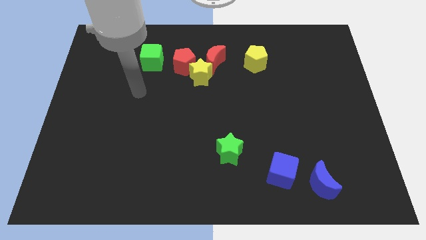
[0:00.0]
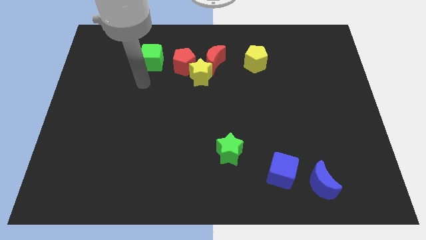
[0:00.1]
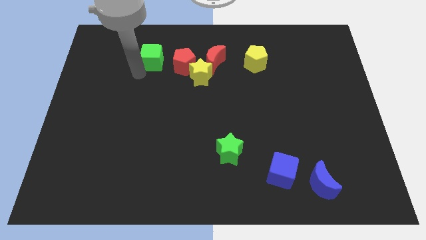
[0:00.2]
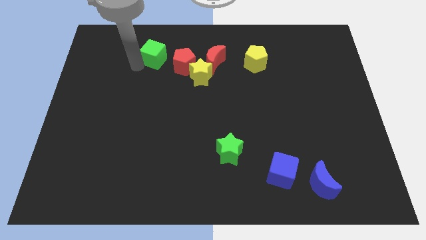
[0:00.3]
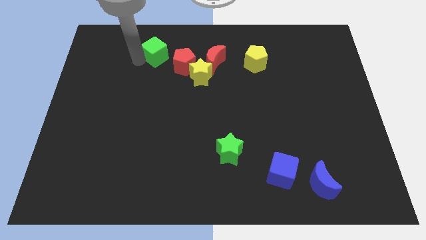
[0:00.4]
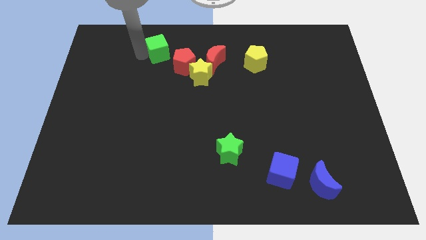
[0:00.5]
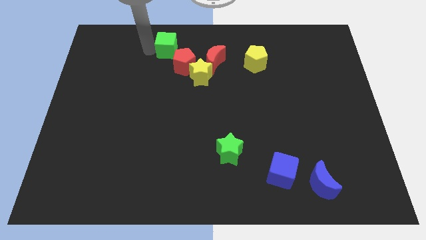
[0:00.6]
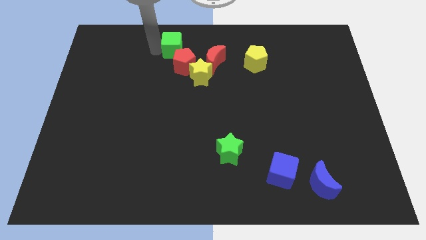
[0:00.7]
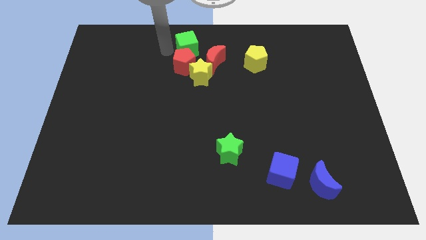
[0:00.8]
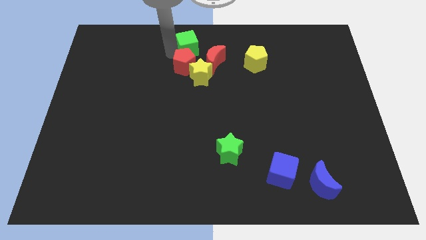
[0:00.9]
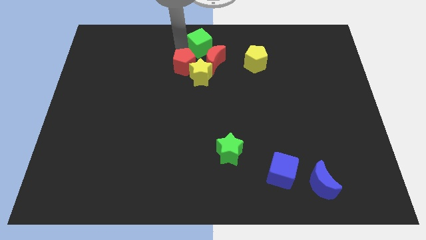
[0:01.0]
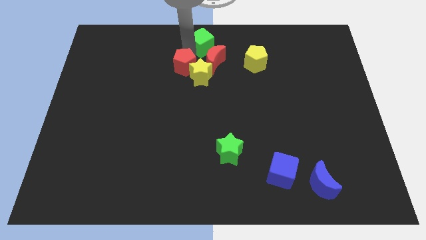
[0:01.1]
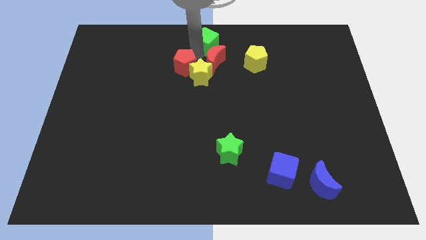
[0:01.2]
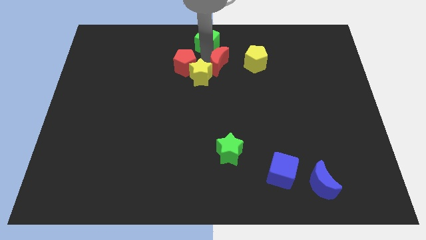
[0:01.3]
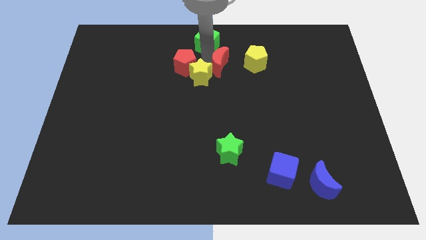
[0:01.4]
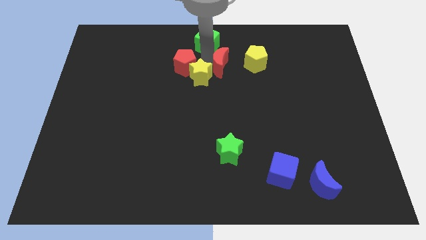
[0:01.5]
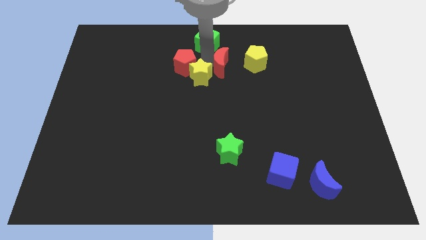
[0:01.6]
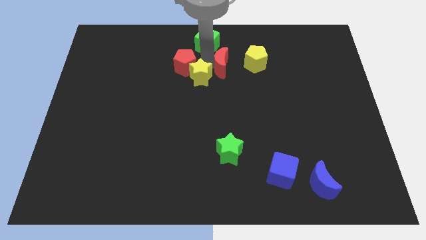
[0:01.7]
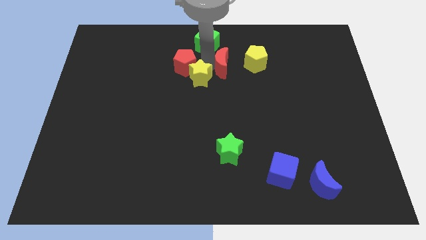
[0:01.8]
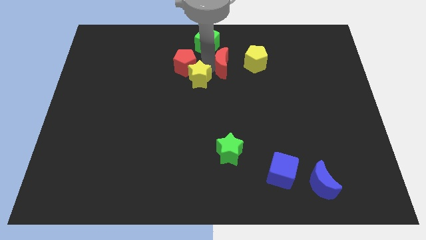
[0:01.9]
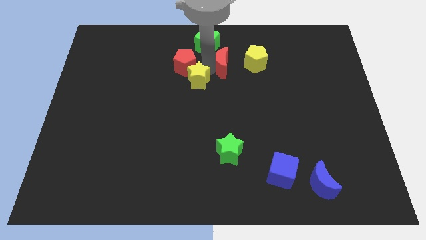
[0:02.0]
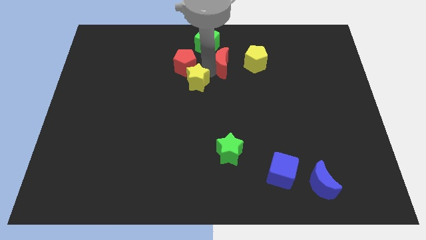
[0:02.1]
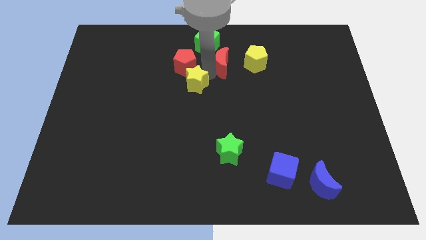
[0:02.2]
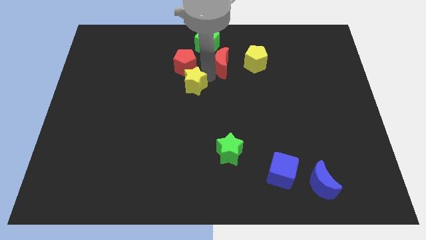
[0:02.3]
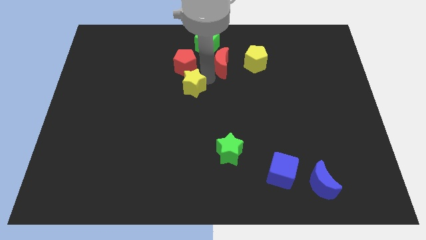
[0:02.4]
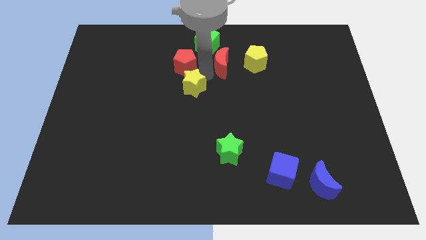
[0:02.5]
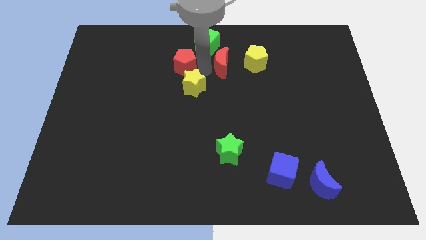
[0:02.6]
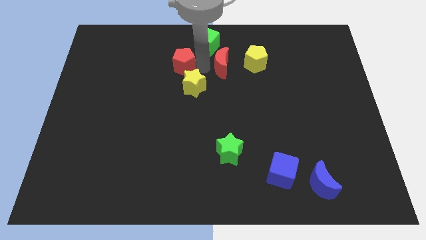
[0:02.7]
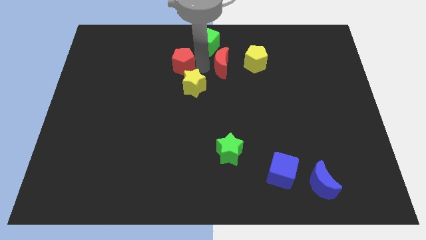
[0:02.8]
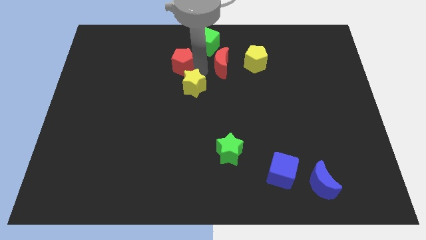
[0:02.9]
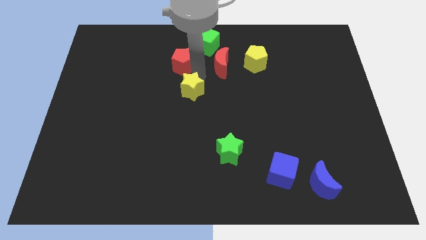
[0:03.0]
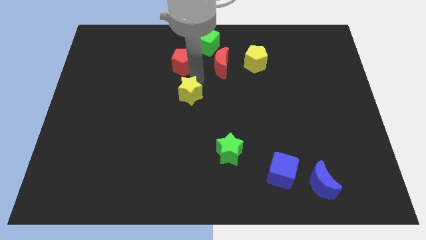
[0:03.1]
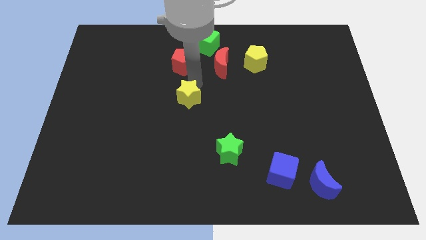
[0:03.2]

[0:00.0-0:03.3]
move the yellow star away from the red pentagon and red moon

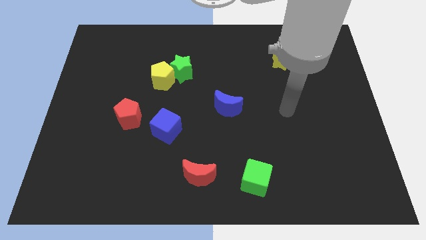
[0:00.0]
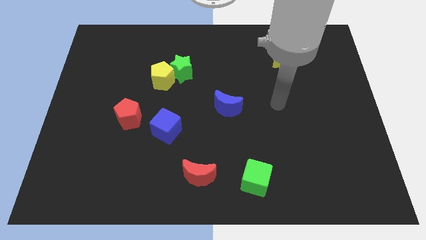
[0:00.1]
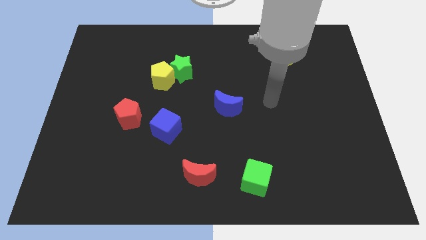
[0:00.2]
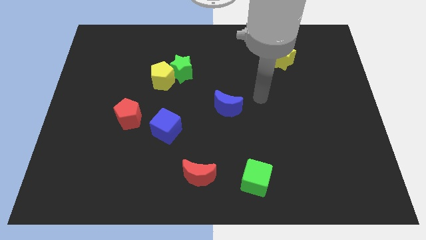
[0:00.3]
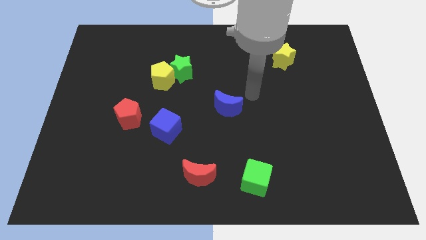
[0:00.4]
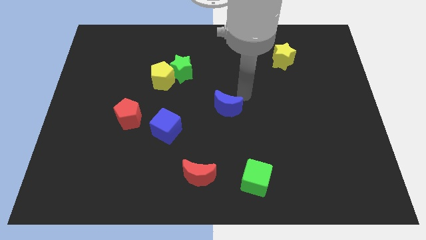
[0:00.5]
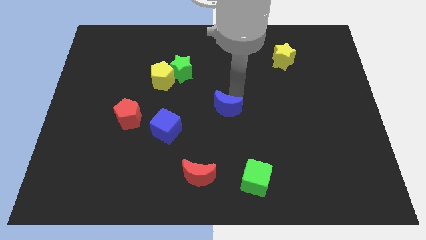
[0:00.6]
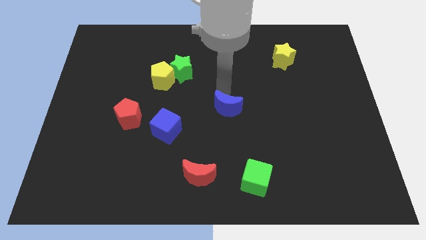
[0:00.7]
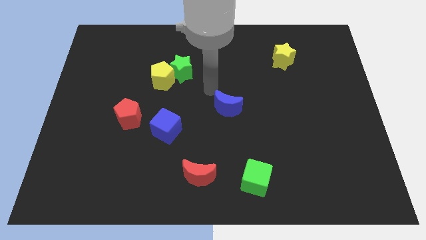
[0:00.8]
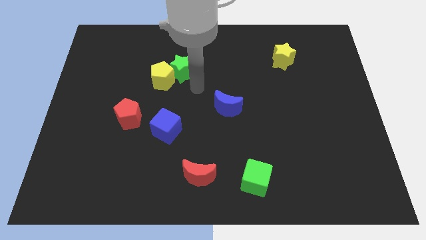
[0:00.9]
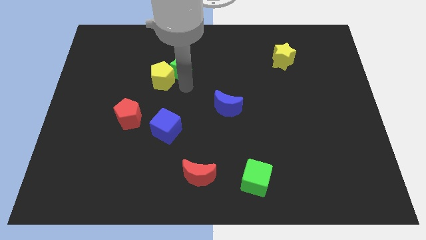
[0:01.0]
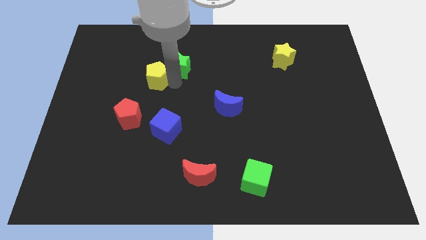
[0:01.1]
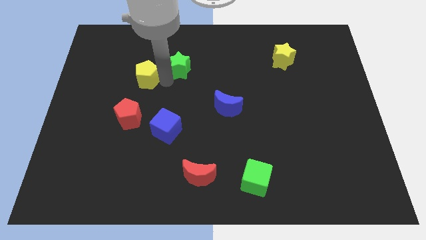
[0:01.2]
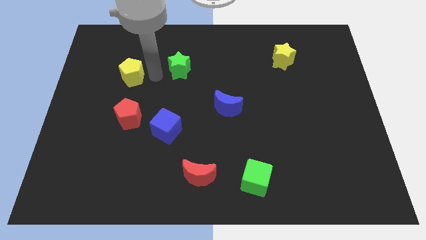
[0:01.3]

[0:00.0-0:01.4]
separate the green star from the yellow pentagon

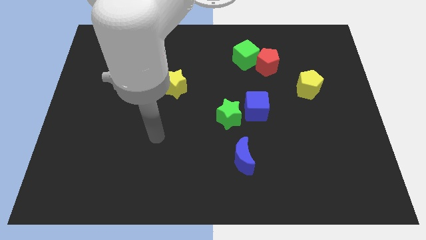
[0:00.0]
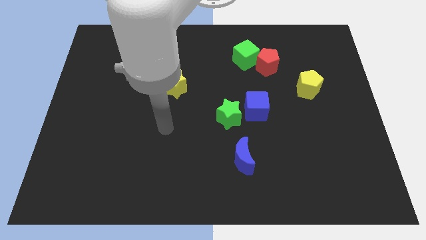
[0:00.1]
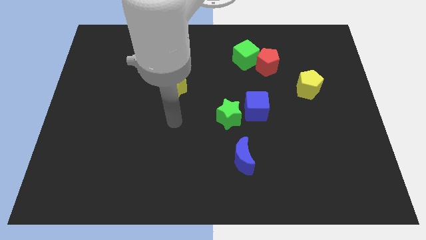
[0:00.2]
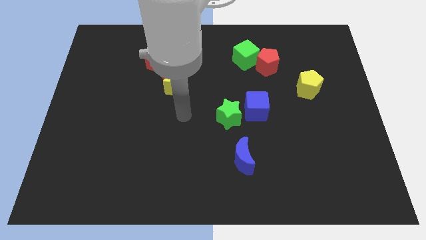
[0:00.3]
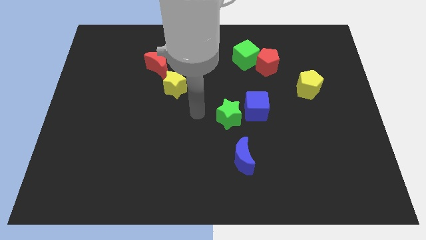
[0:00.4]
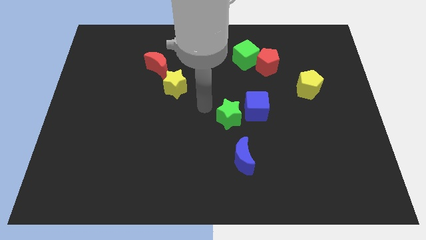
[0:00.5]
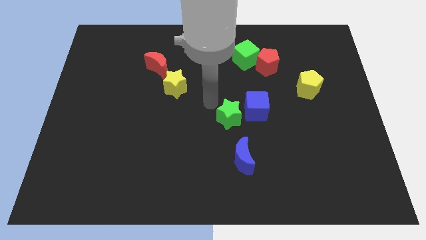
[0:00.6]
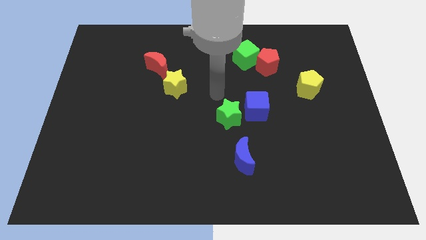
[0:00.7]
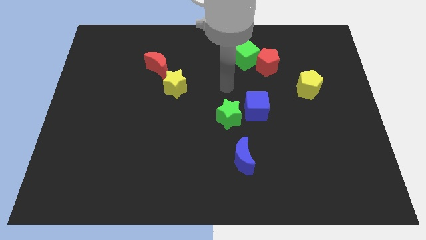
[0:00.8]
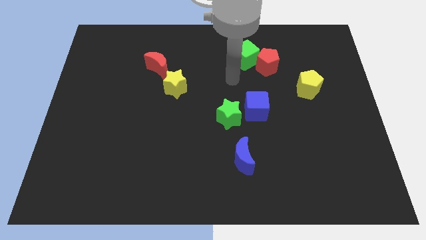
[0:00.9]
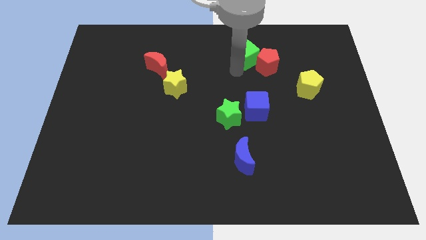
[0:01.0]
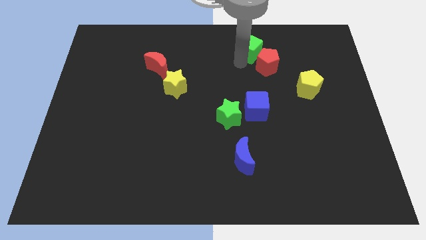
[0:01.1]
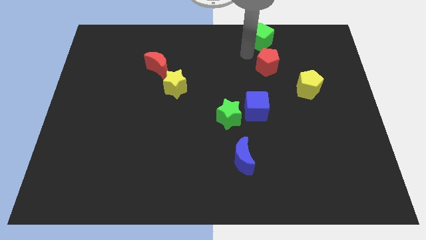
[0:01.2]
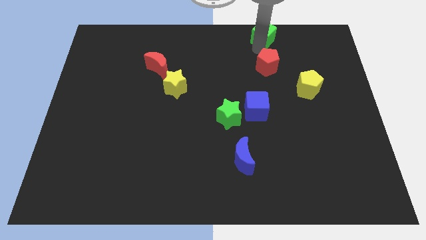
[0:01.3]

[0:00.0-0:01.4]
move the red pentagon away from the green cube

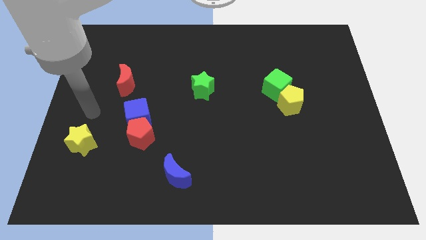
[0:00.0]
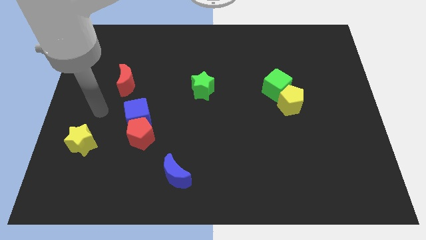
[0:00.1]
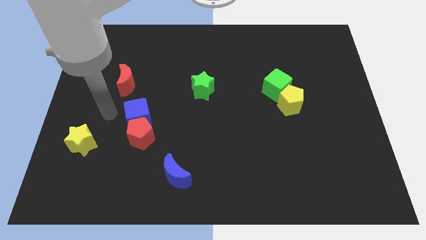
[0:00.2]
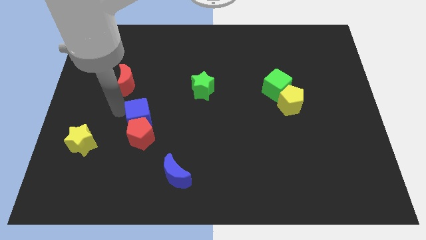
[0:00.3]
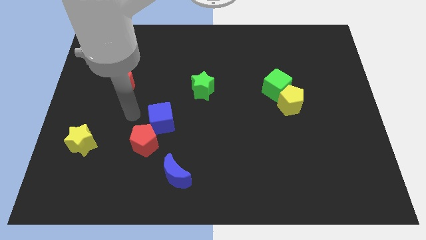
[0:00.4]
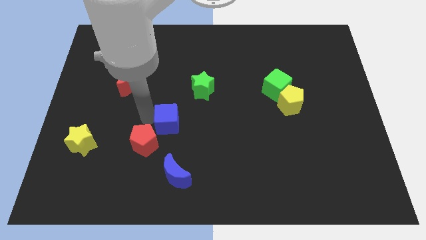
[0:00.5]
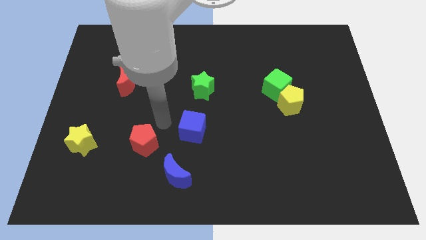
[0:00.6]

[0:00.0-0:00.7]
separate the red pentagon from the blue cube

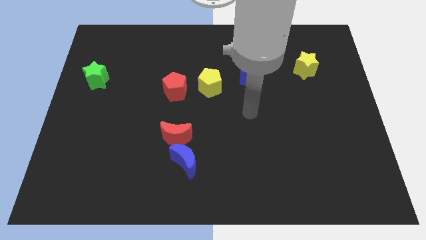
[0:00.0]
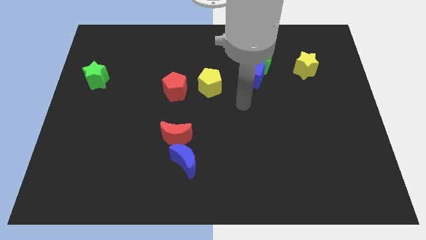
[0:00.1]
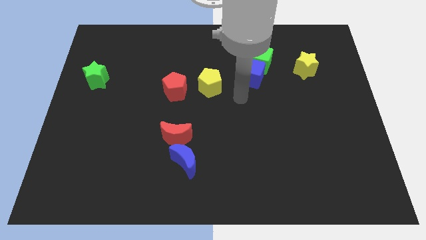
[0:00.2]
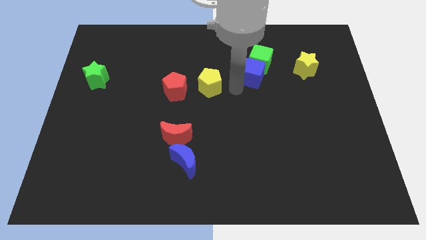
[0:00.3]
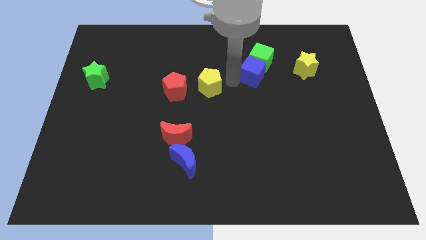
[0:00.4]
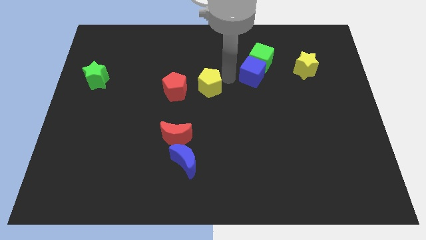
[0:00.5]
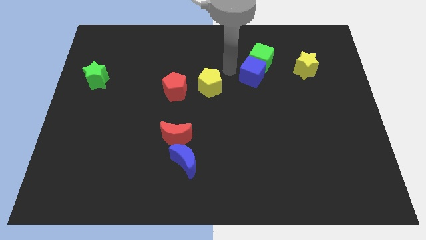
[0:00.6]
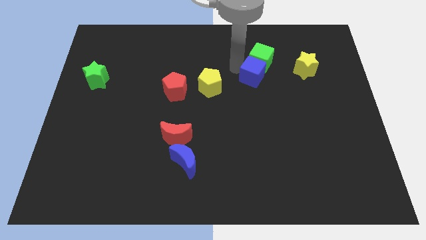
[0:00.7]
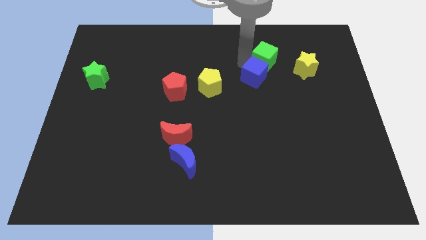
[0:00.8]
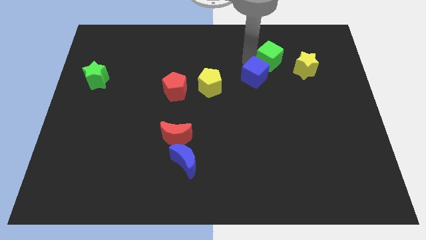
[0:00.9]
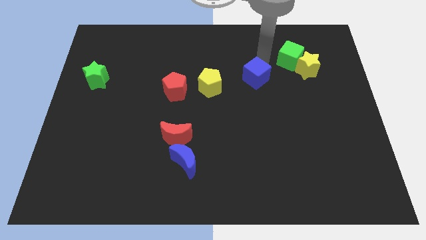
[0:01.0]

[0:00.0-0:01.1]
move the blue cube away from the green cube

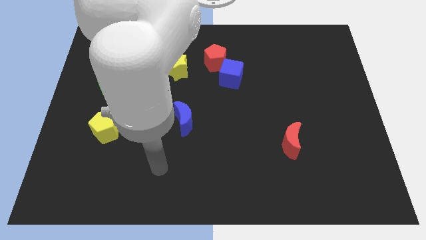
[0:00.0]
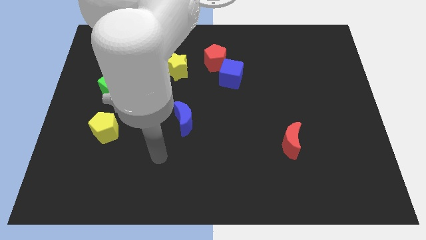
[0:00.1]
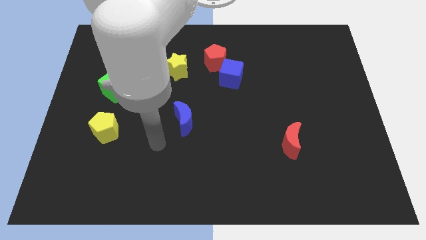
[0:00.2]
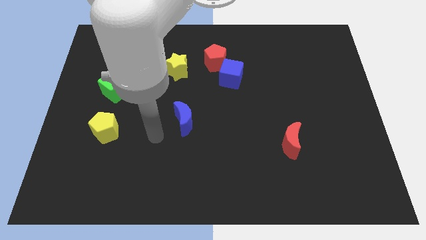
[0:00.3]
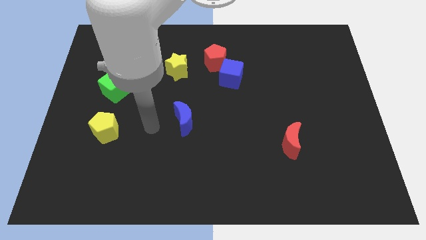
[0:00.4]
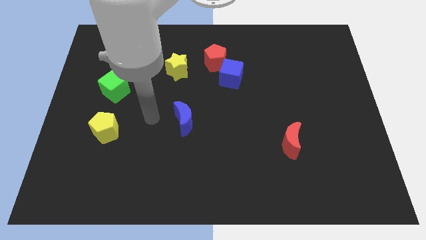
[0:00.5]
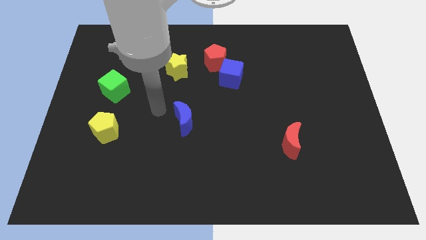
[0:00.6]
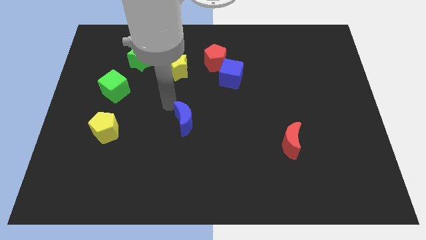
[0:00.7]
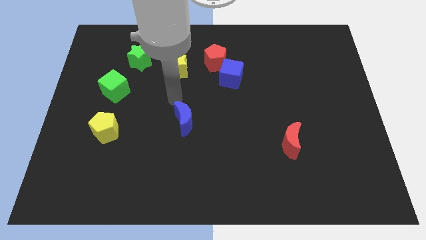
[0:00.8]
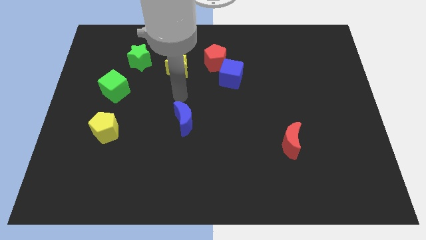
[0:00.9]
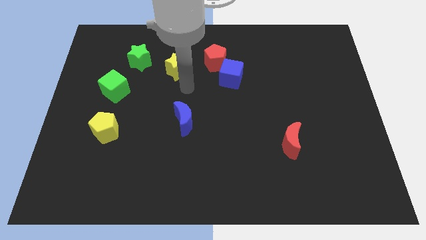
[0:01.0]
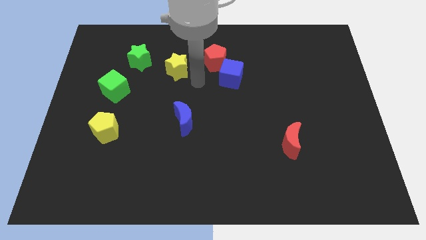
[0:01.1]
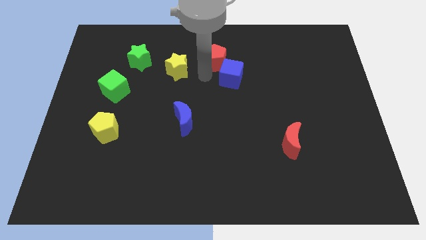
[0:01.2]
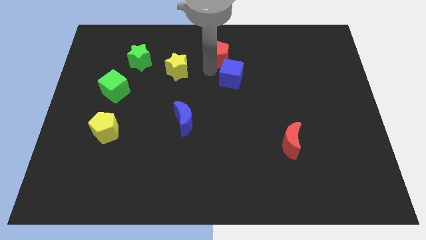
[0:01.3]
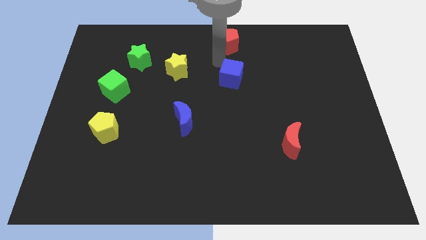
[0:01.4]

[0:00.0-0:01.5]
separate the blue cube from the red pentagon
